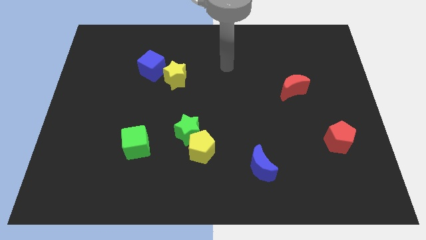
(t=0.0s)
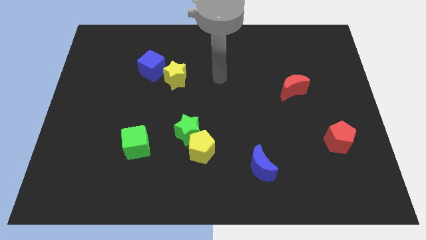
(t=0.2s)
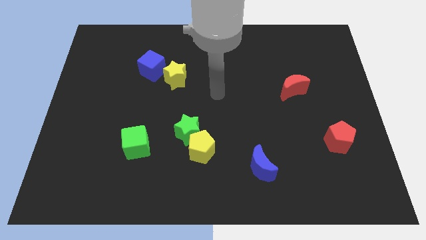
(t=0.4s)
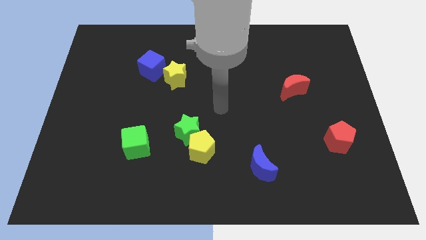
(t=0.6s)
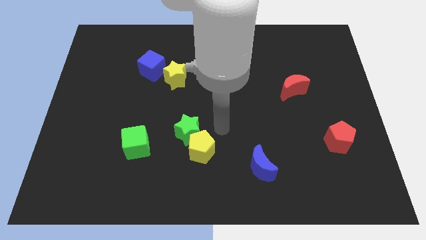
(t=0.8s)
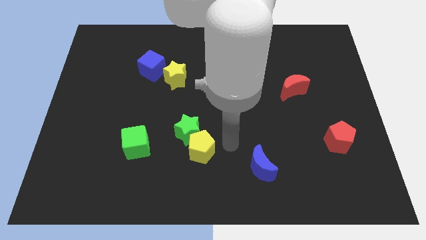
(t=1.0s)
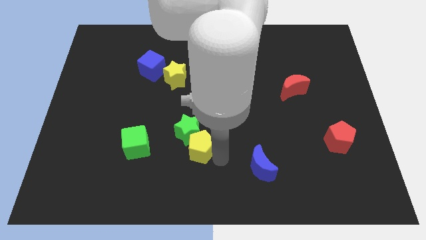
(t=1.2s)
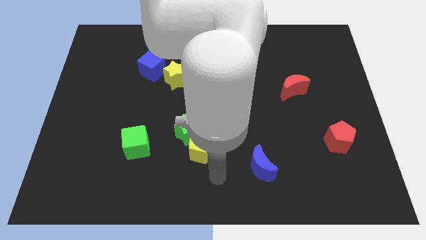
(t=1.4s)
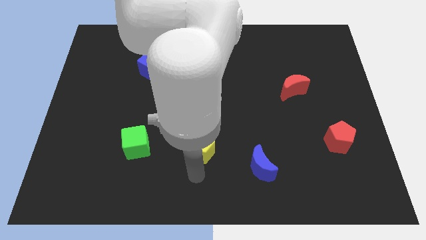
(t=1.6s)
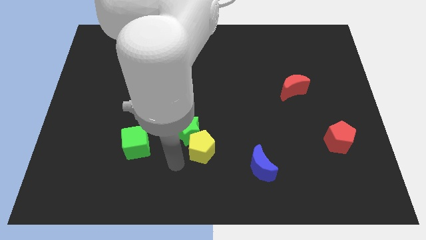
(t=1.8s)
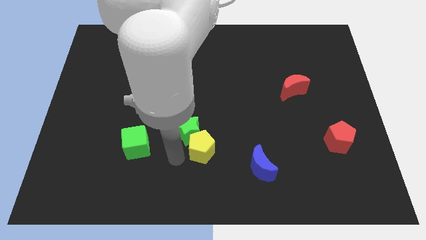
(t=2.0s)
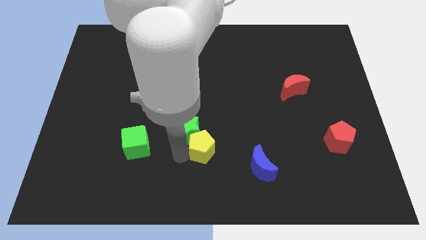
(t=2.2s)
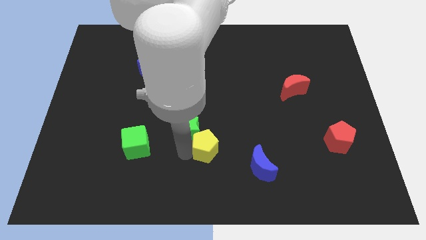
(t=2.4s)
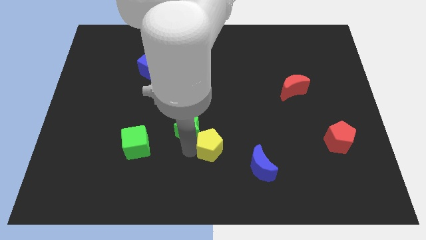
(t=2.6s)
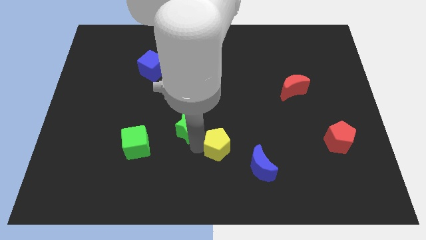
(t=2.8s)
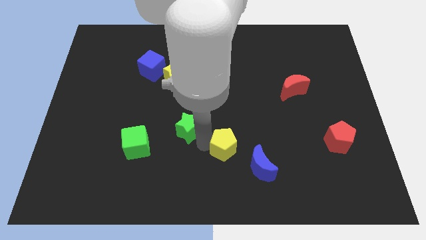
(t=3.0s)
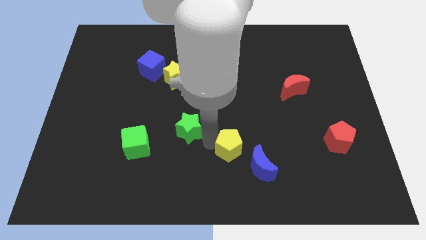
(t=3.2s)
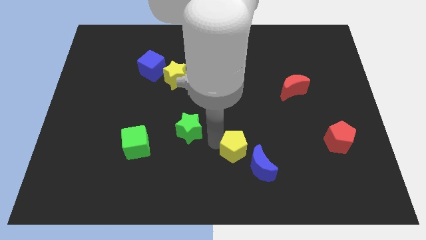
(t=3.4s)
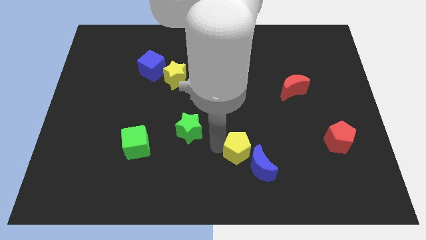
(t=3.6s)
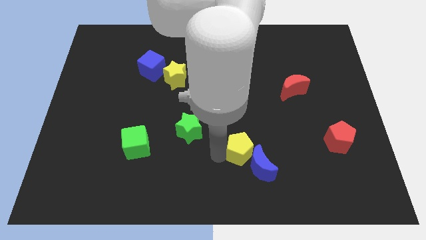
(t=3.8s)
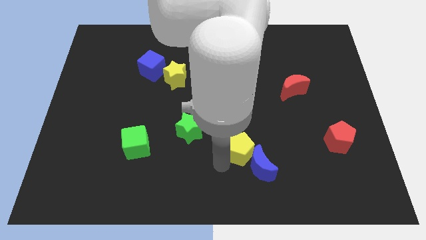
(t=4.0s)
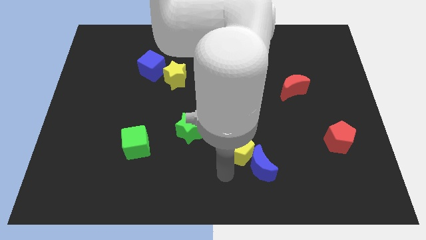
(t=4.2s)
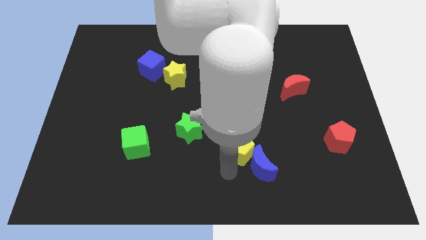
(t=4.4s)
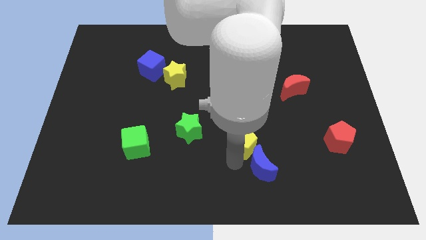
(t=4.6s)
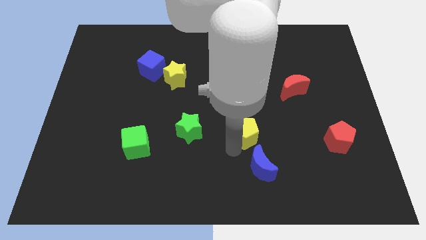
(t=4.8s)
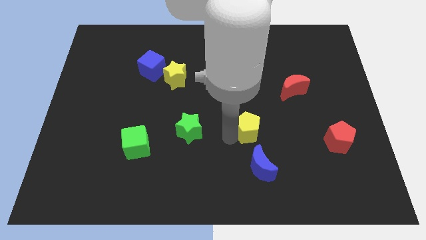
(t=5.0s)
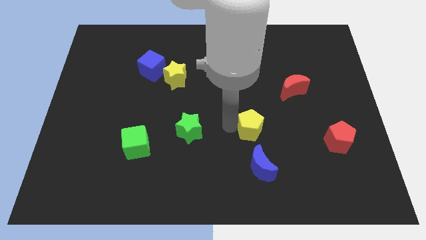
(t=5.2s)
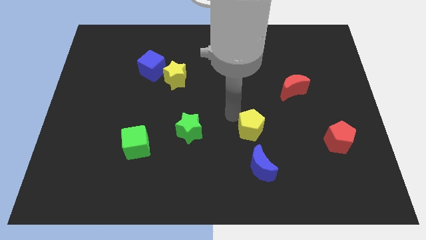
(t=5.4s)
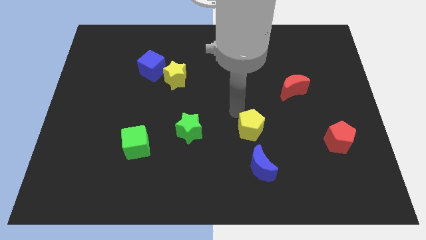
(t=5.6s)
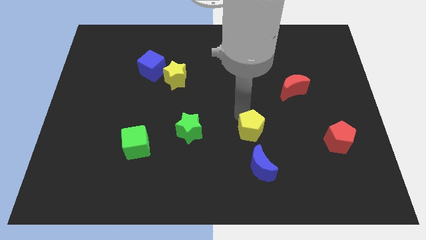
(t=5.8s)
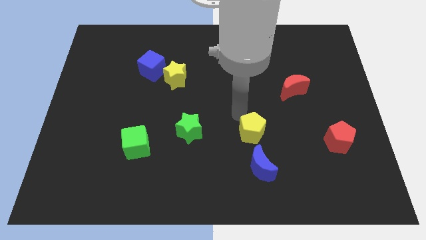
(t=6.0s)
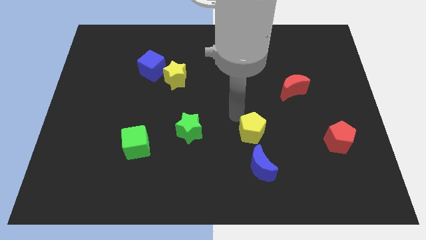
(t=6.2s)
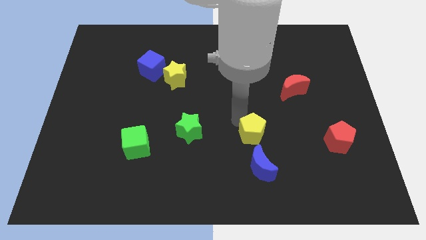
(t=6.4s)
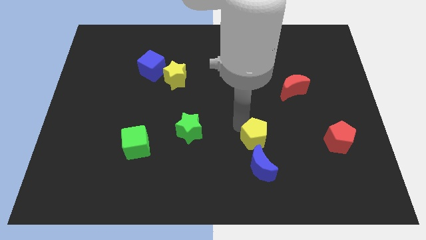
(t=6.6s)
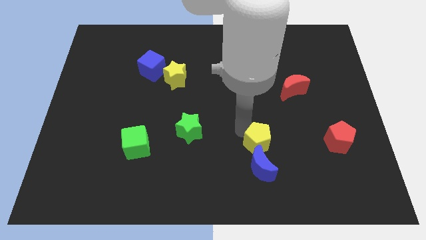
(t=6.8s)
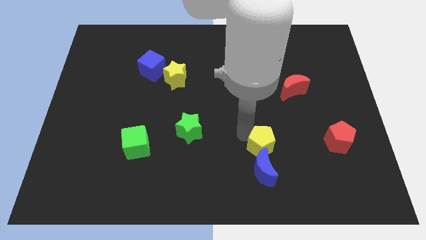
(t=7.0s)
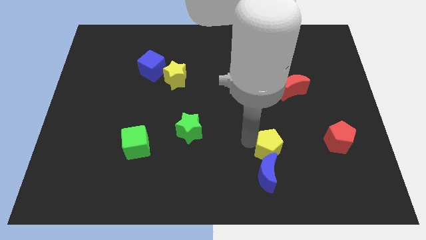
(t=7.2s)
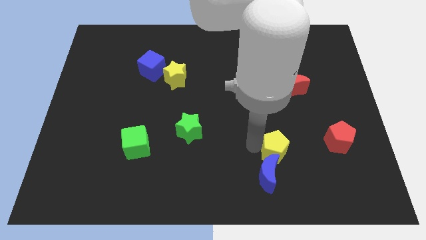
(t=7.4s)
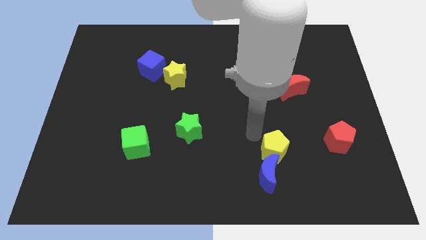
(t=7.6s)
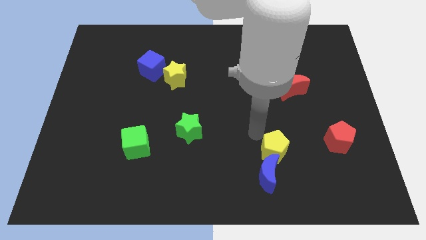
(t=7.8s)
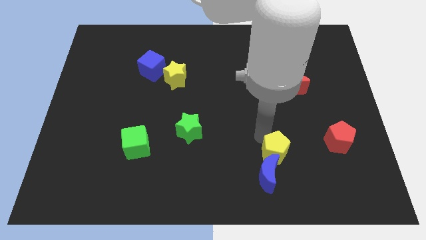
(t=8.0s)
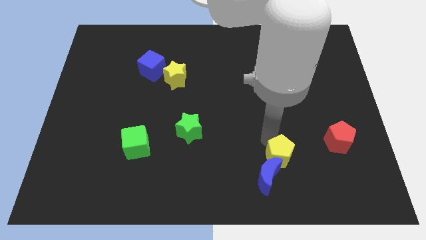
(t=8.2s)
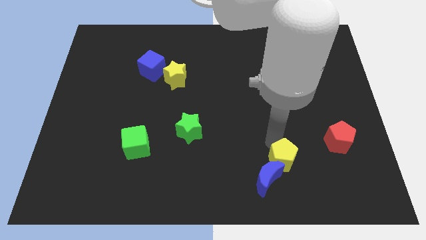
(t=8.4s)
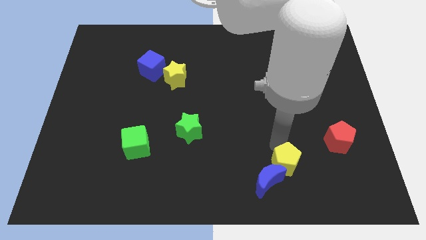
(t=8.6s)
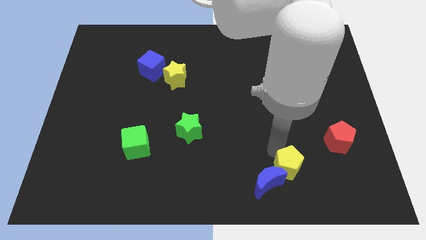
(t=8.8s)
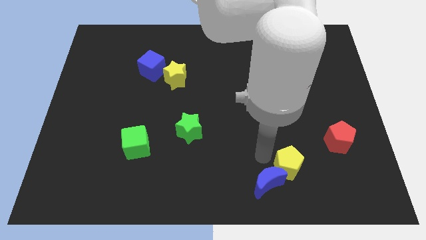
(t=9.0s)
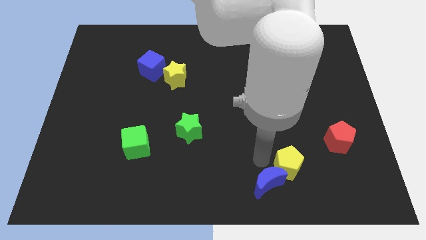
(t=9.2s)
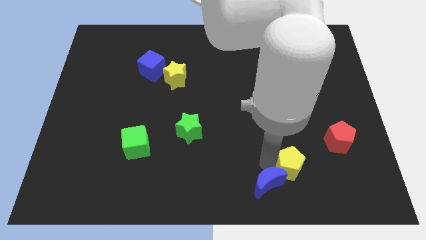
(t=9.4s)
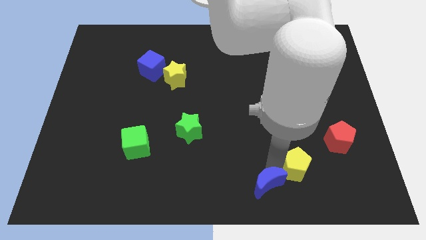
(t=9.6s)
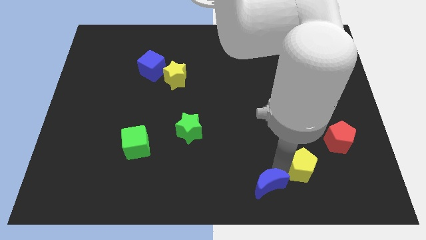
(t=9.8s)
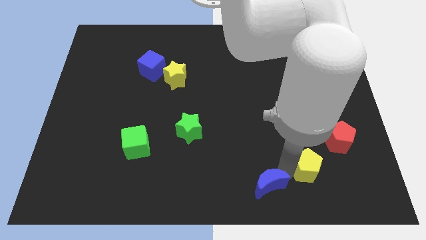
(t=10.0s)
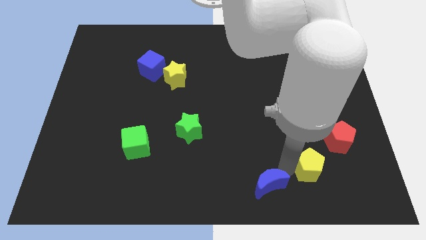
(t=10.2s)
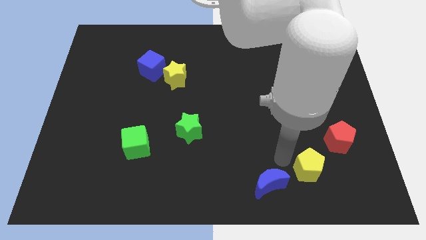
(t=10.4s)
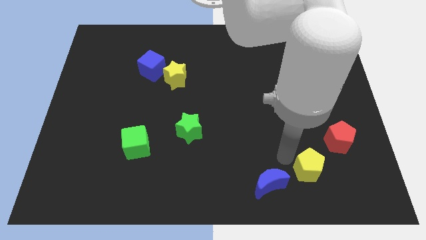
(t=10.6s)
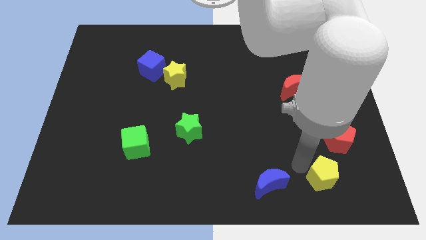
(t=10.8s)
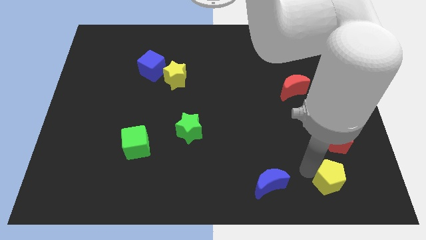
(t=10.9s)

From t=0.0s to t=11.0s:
put the yellow pentagon to the bottom of the red pentagon

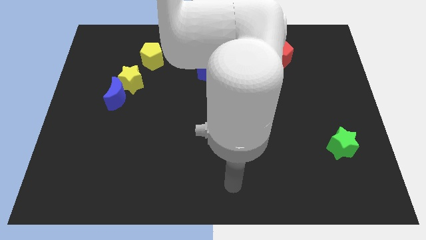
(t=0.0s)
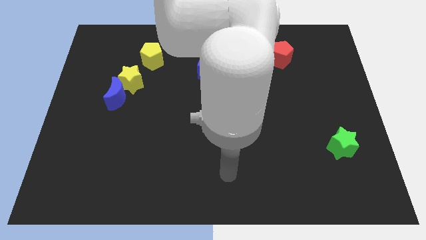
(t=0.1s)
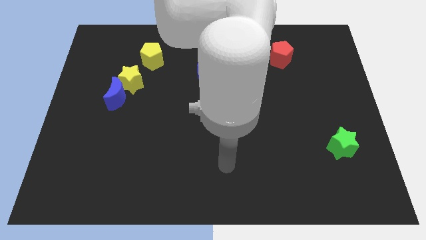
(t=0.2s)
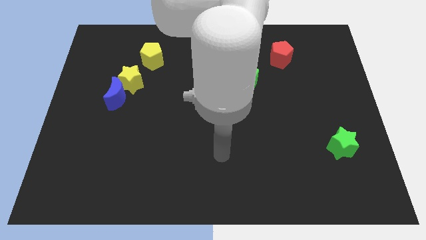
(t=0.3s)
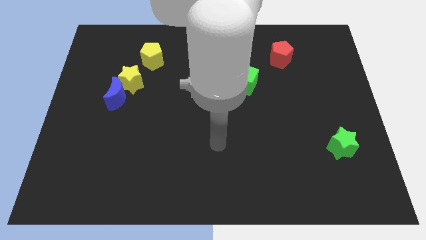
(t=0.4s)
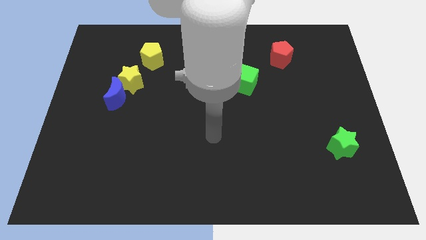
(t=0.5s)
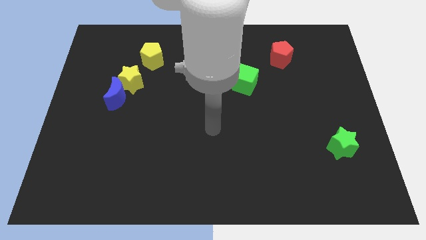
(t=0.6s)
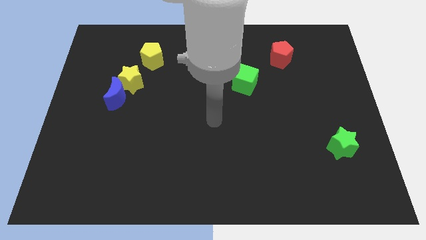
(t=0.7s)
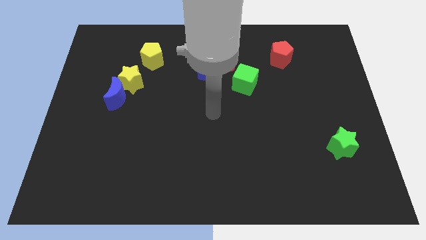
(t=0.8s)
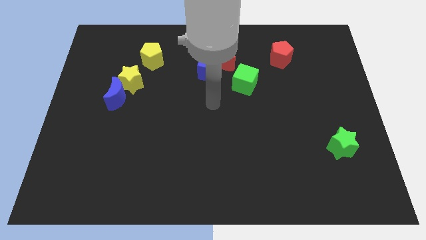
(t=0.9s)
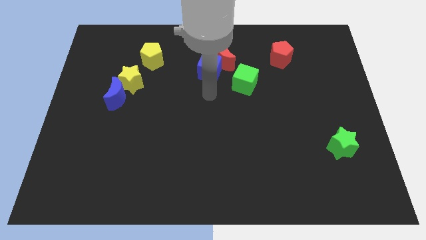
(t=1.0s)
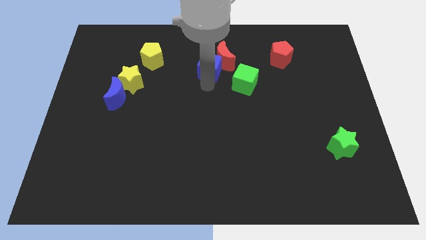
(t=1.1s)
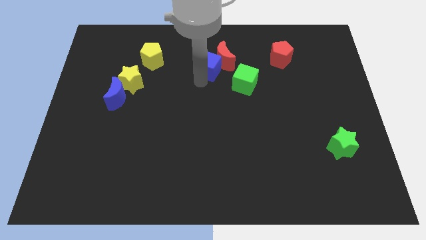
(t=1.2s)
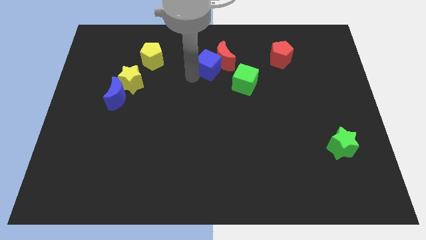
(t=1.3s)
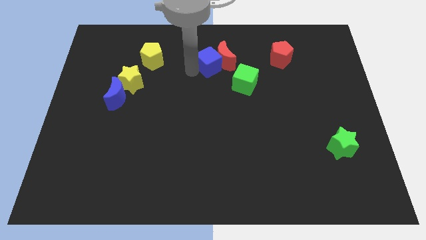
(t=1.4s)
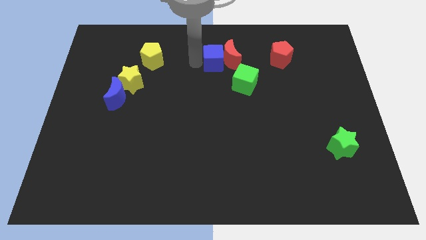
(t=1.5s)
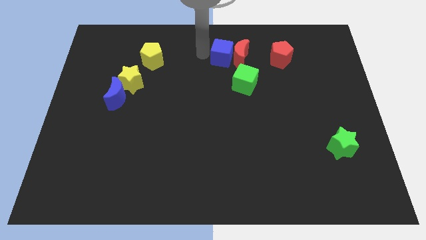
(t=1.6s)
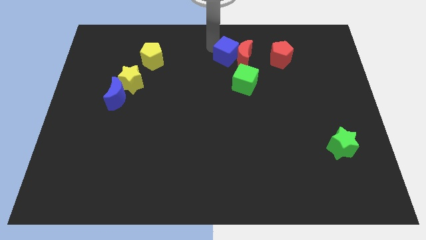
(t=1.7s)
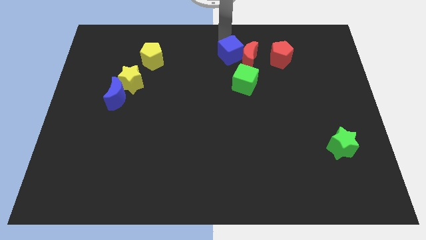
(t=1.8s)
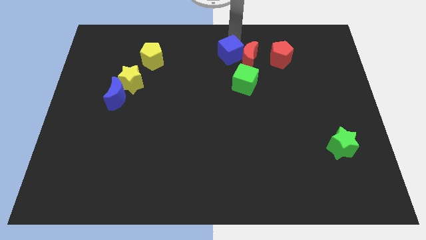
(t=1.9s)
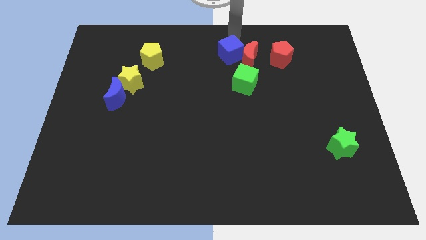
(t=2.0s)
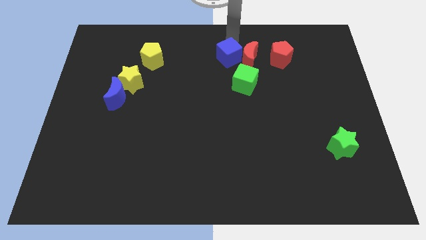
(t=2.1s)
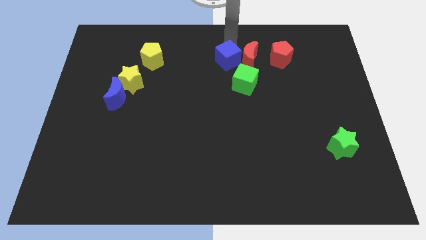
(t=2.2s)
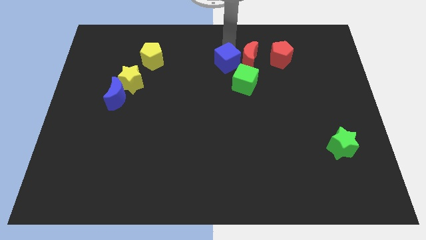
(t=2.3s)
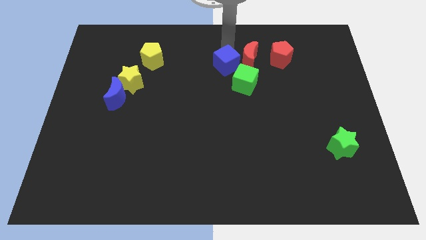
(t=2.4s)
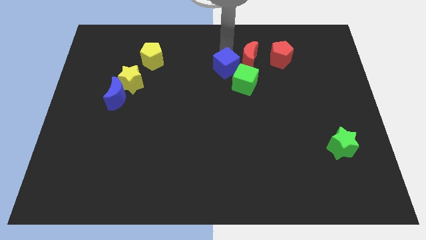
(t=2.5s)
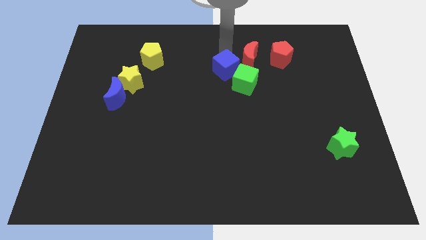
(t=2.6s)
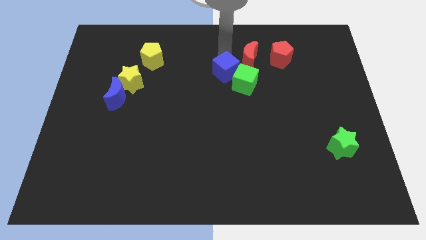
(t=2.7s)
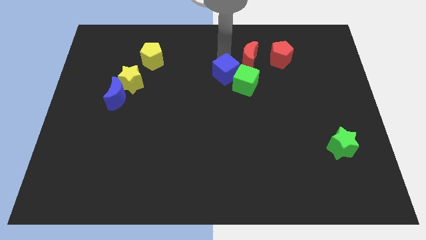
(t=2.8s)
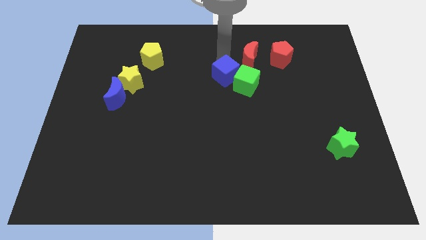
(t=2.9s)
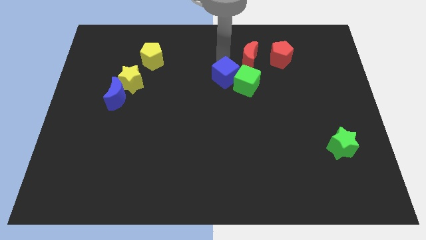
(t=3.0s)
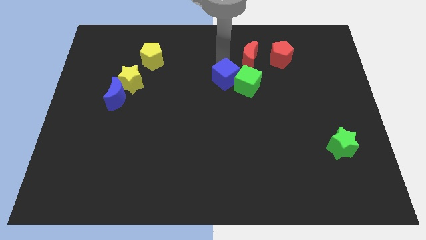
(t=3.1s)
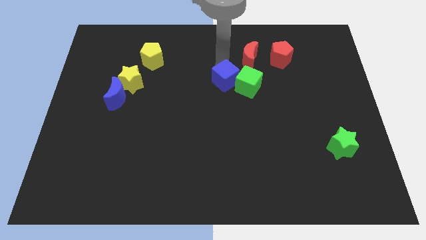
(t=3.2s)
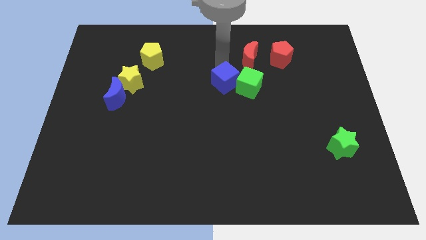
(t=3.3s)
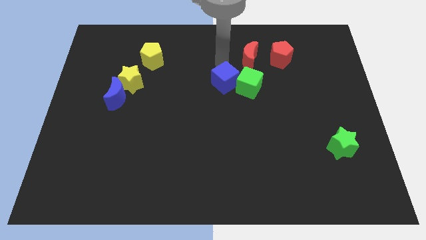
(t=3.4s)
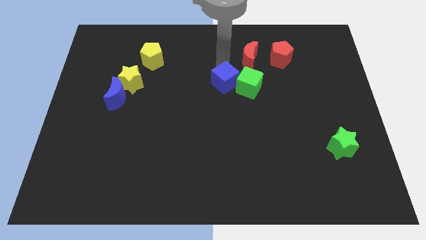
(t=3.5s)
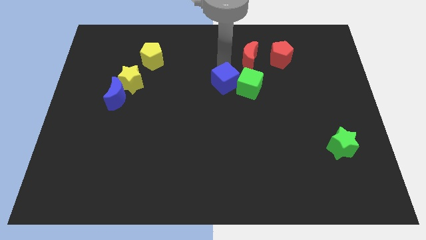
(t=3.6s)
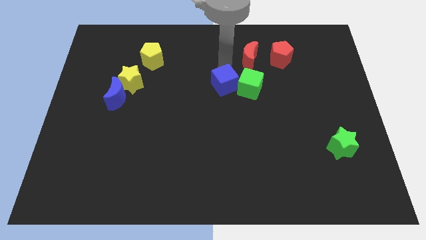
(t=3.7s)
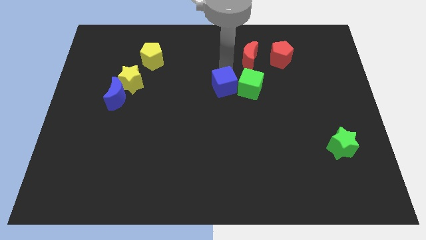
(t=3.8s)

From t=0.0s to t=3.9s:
move the blue cube to the bottom left side of the green cube
